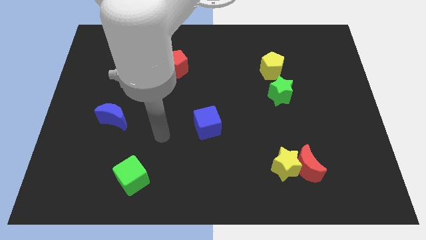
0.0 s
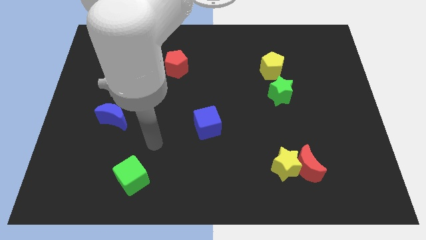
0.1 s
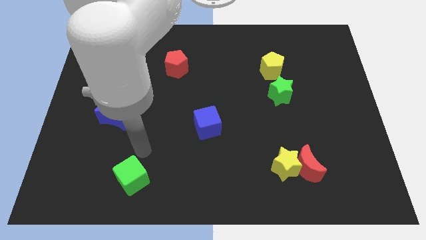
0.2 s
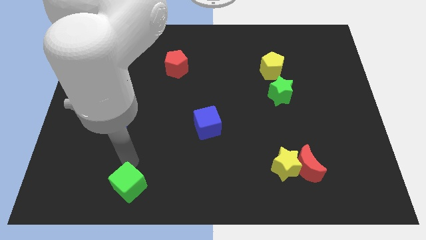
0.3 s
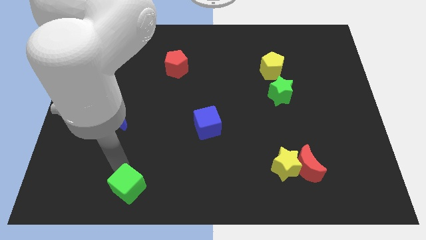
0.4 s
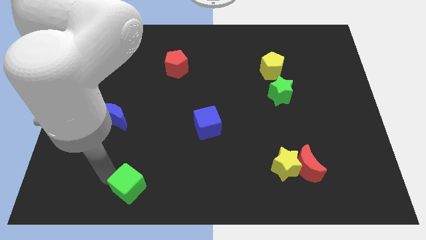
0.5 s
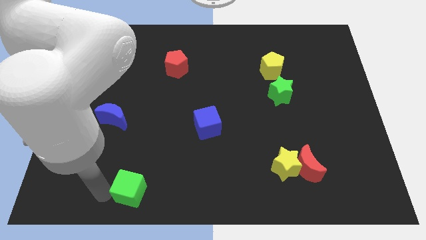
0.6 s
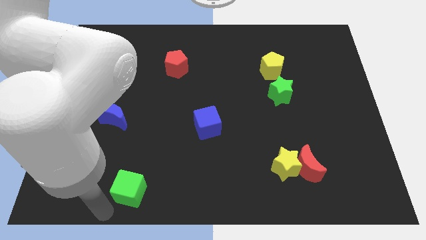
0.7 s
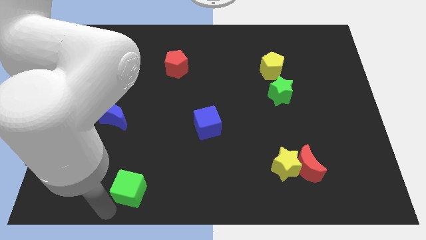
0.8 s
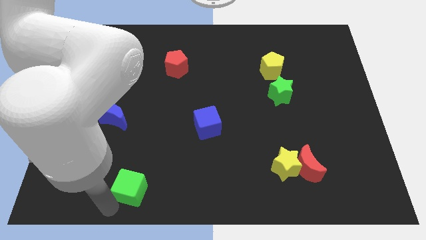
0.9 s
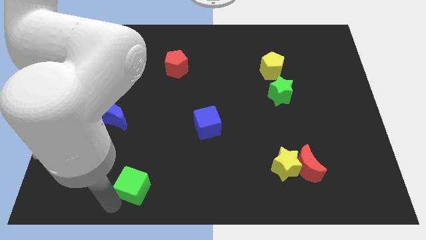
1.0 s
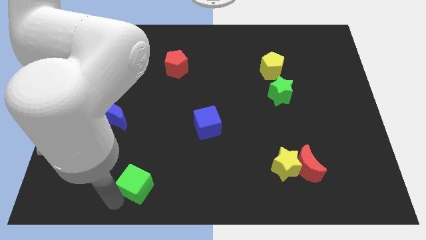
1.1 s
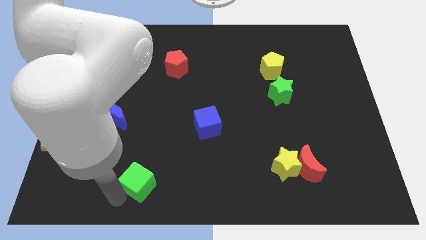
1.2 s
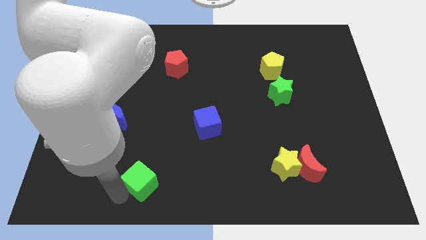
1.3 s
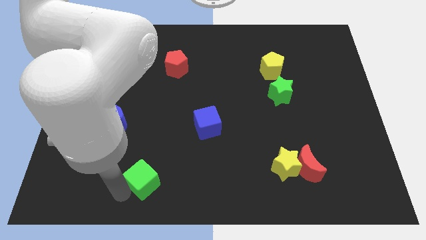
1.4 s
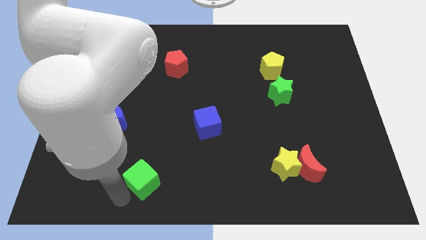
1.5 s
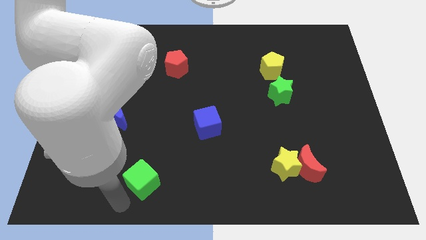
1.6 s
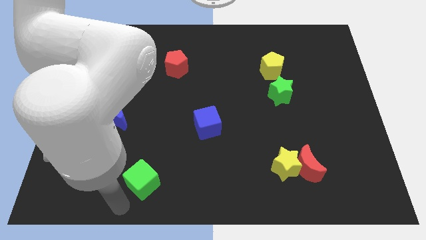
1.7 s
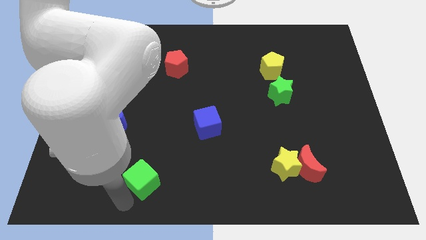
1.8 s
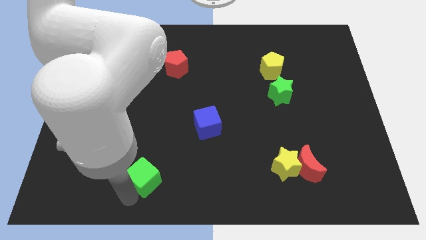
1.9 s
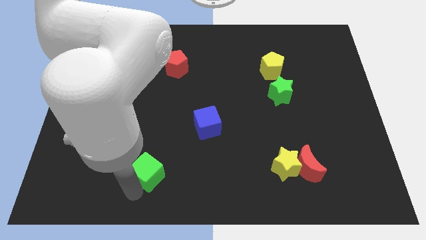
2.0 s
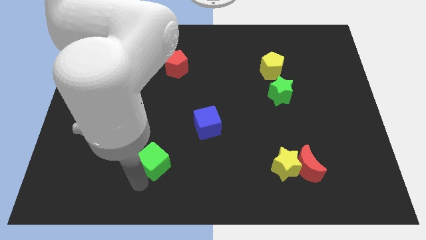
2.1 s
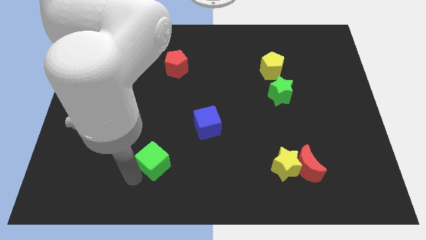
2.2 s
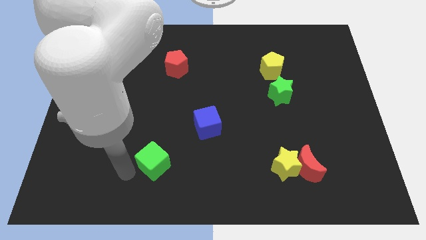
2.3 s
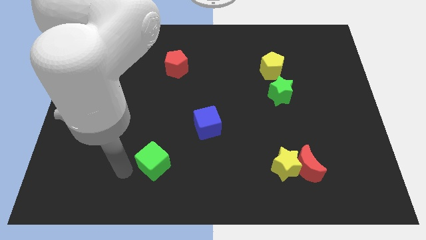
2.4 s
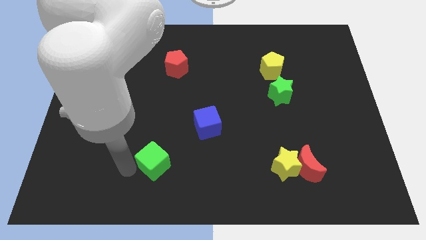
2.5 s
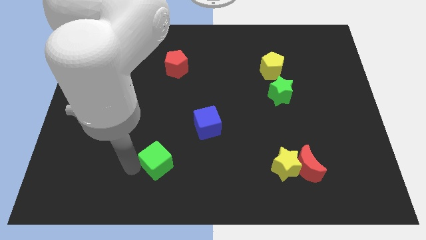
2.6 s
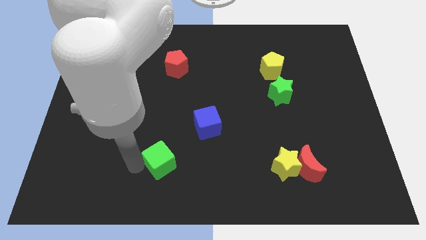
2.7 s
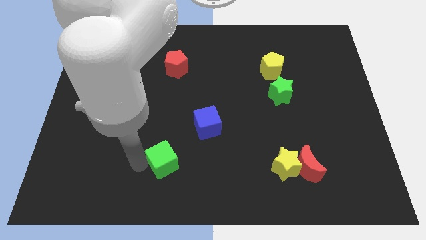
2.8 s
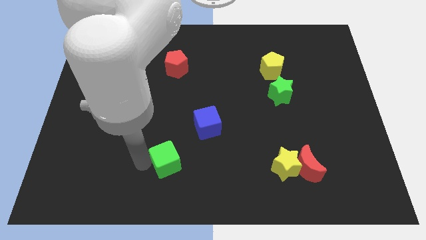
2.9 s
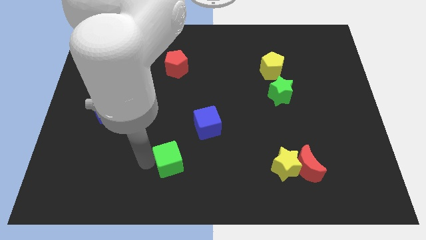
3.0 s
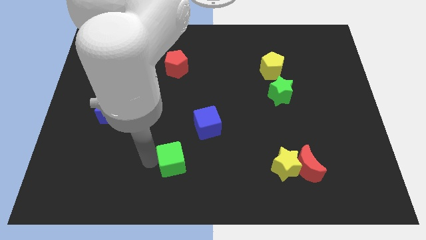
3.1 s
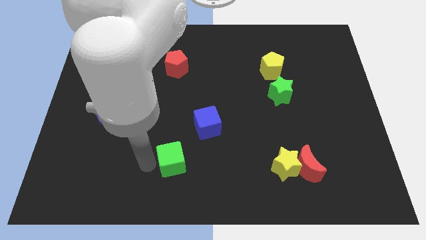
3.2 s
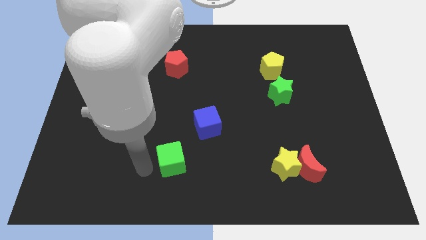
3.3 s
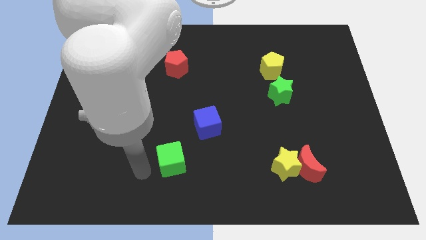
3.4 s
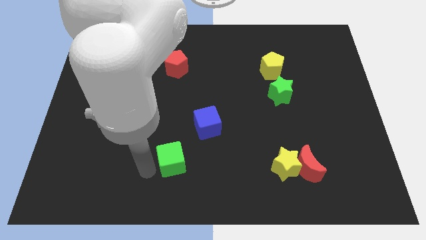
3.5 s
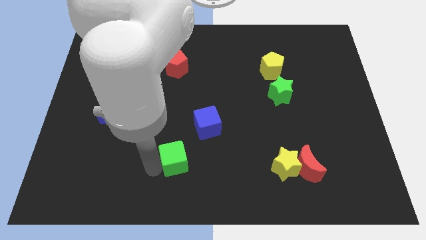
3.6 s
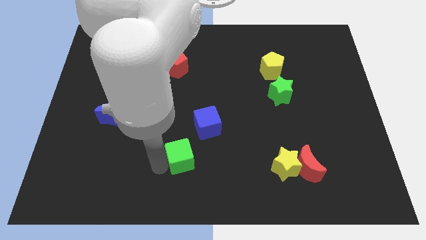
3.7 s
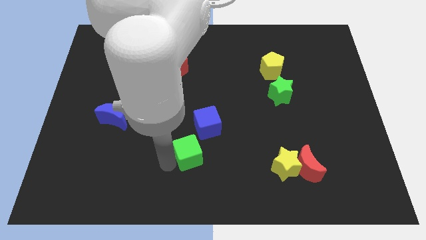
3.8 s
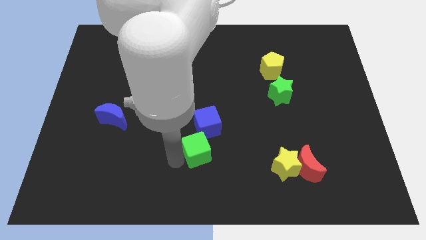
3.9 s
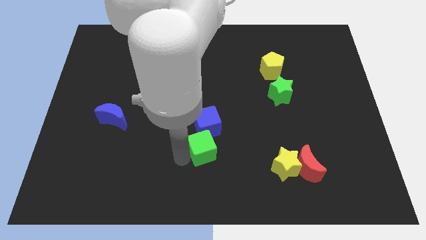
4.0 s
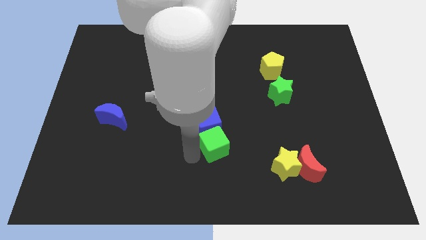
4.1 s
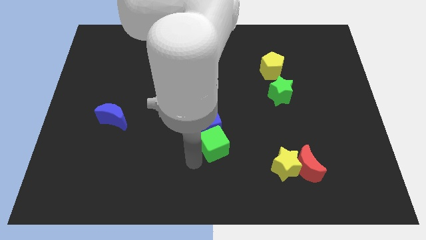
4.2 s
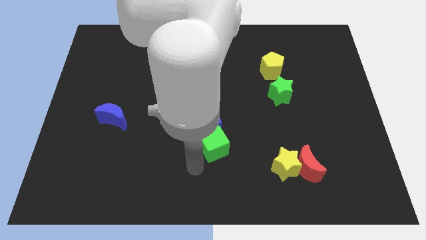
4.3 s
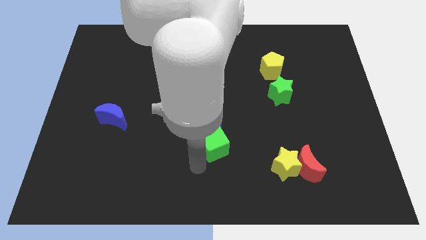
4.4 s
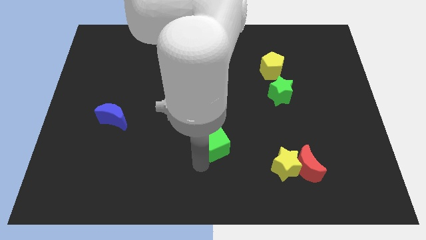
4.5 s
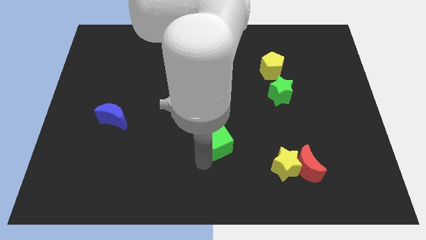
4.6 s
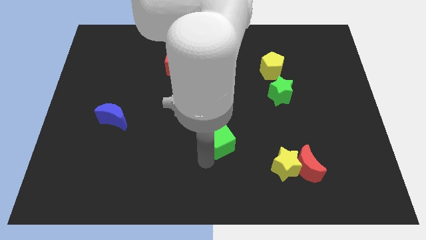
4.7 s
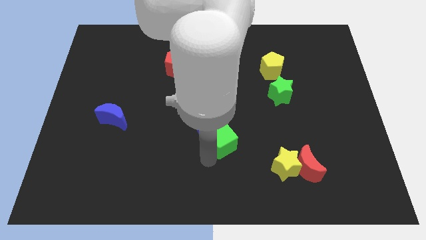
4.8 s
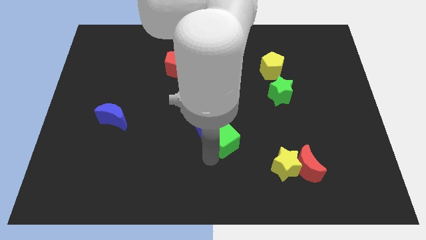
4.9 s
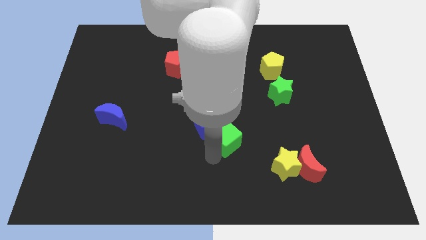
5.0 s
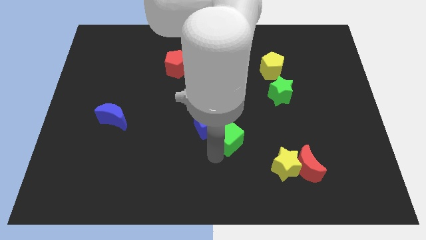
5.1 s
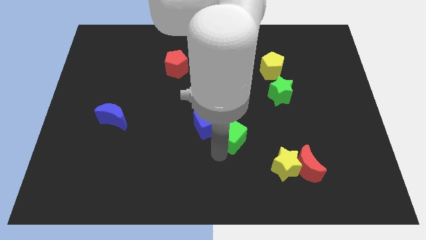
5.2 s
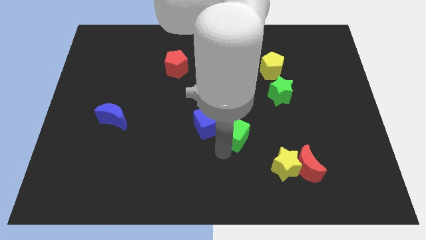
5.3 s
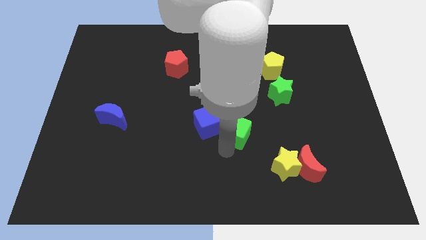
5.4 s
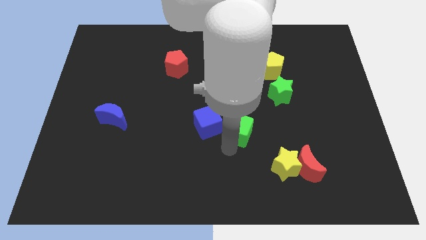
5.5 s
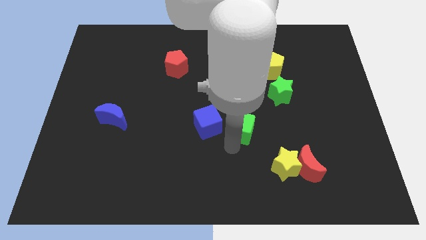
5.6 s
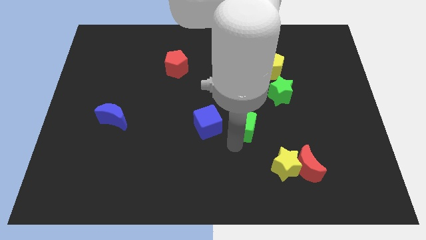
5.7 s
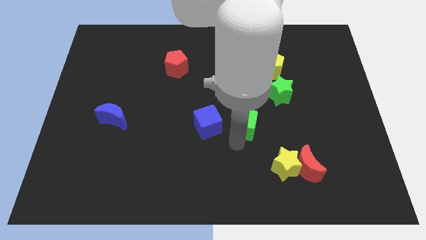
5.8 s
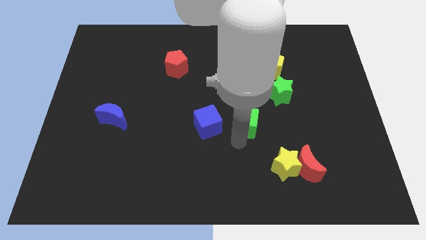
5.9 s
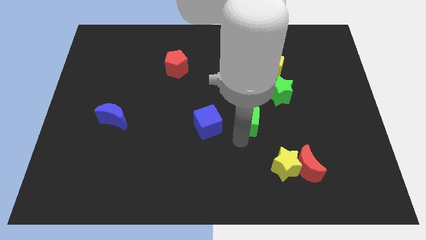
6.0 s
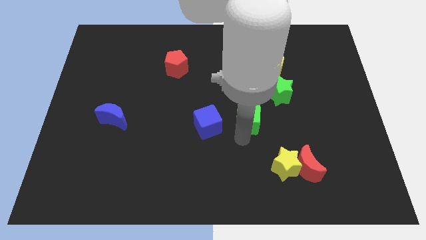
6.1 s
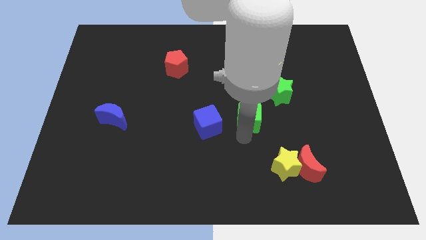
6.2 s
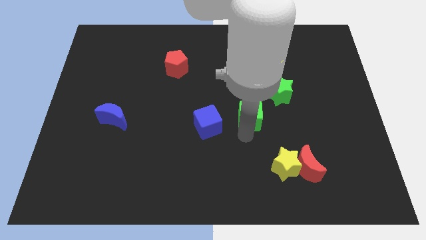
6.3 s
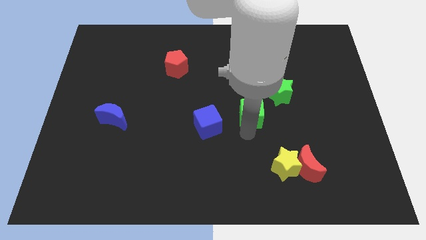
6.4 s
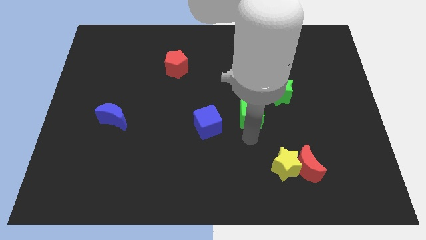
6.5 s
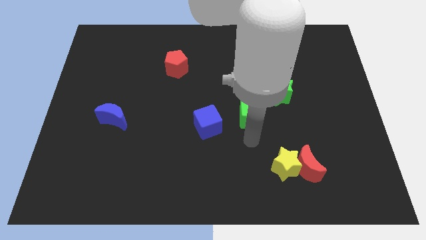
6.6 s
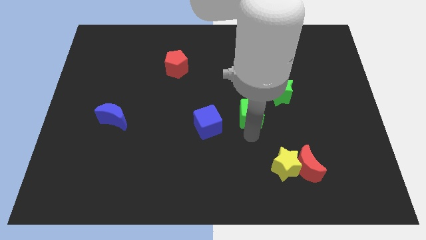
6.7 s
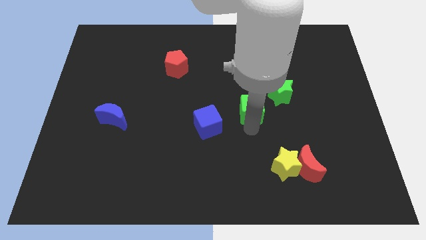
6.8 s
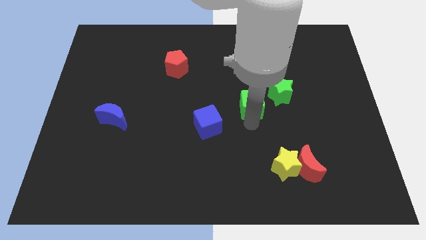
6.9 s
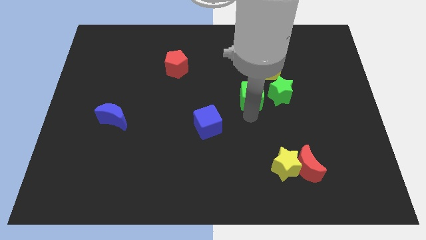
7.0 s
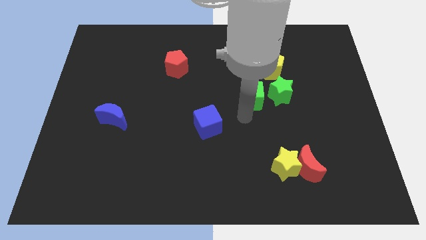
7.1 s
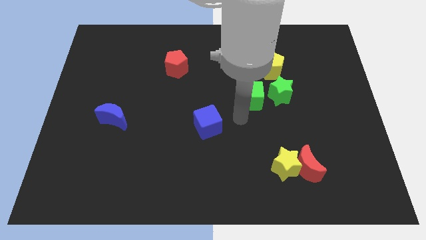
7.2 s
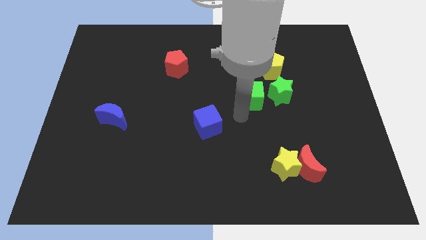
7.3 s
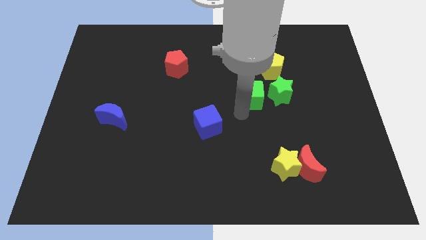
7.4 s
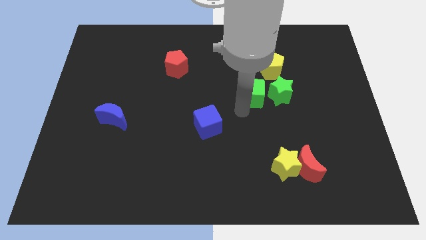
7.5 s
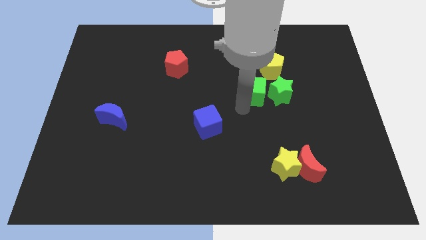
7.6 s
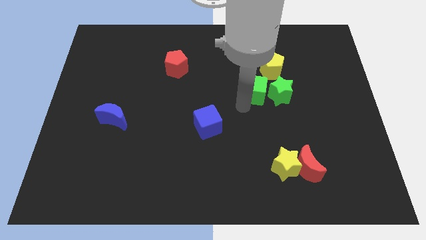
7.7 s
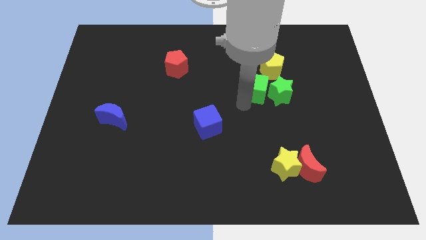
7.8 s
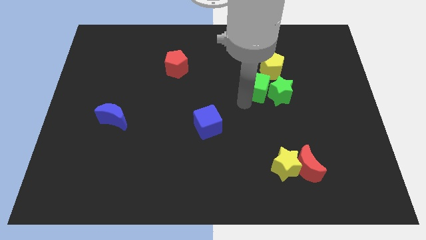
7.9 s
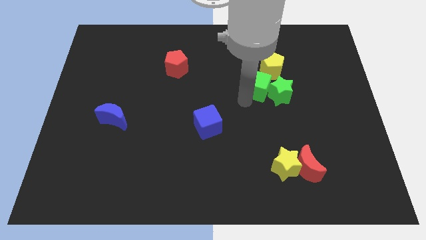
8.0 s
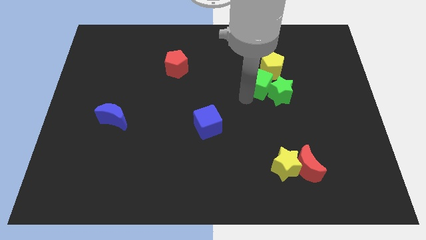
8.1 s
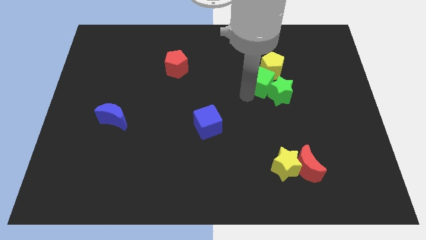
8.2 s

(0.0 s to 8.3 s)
push the green cube close to the yellow pentagon
